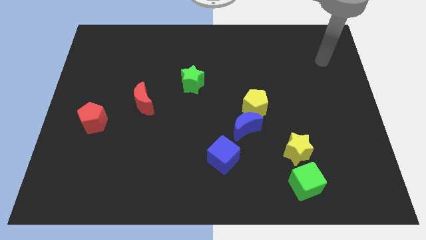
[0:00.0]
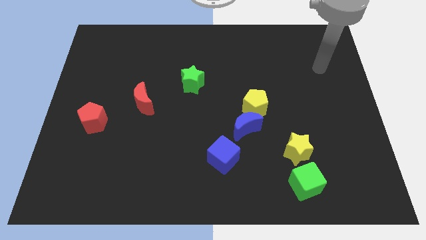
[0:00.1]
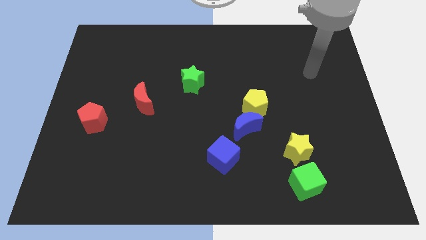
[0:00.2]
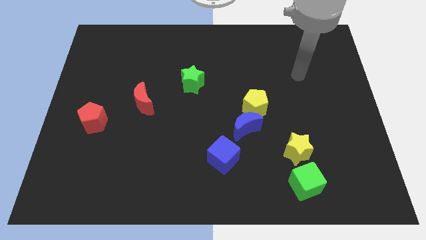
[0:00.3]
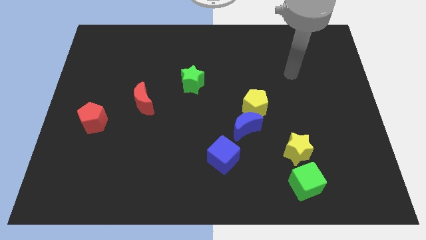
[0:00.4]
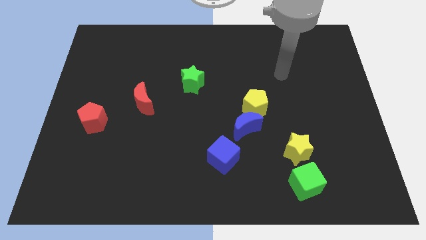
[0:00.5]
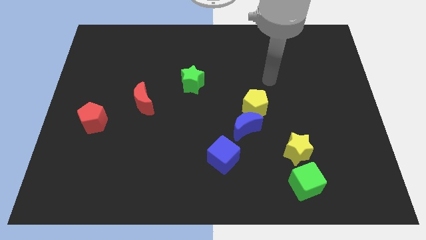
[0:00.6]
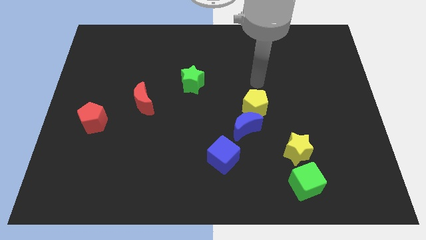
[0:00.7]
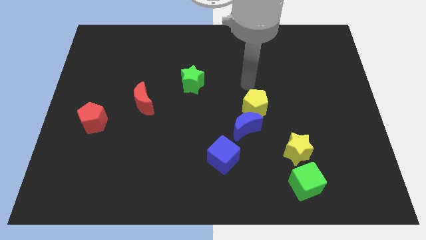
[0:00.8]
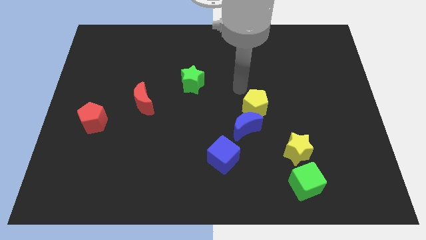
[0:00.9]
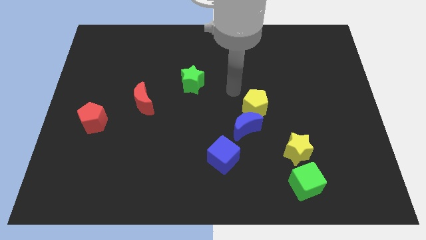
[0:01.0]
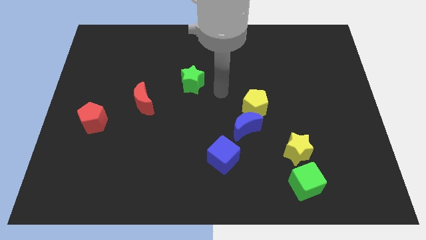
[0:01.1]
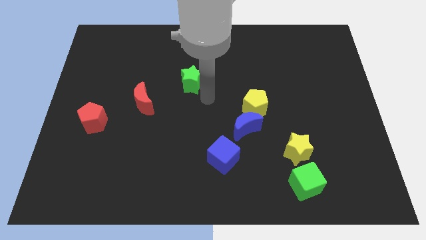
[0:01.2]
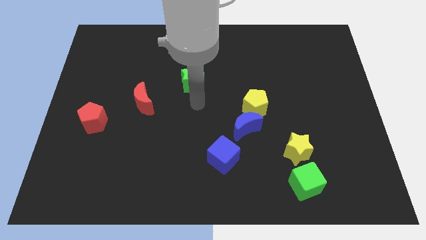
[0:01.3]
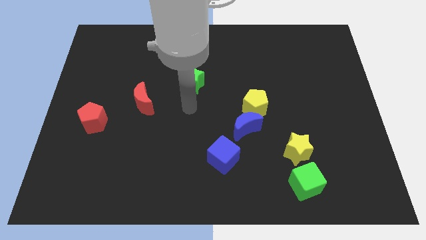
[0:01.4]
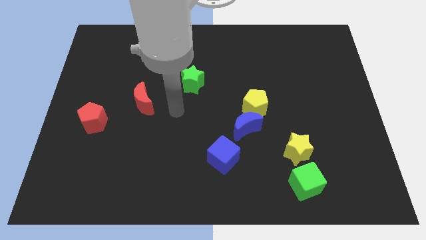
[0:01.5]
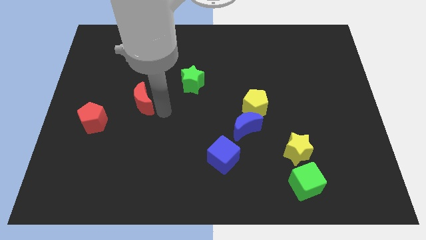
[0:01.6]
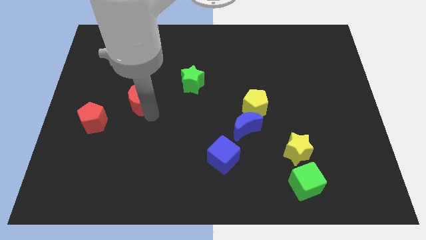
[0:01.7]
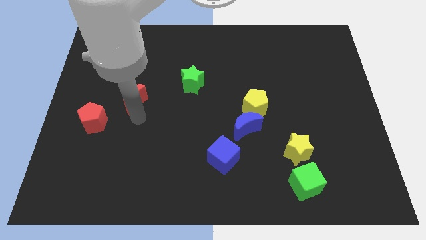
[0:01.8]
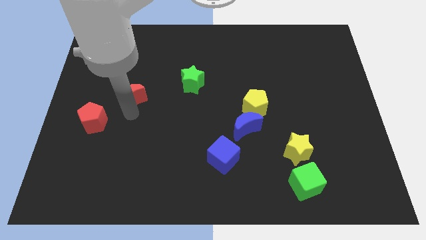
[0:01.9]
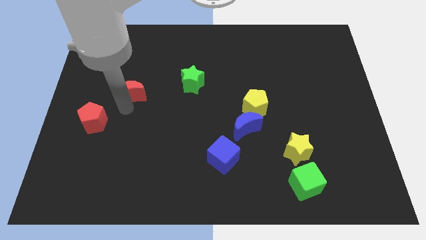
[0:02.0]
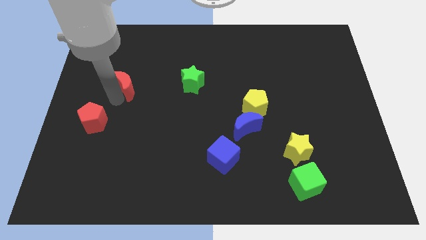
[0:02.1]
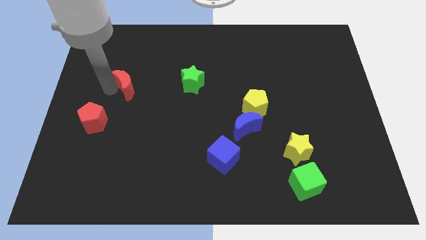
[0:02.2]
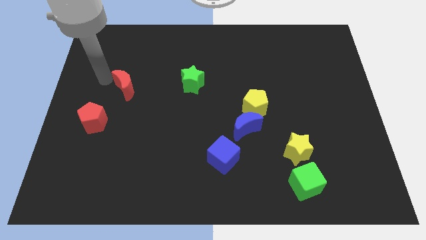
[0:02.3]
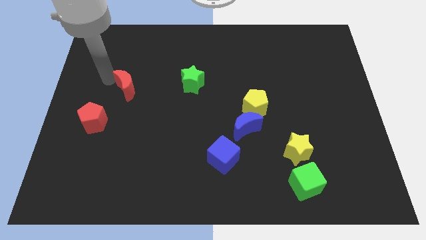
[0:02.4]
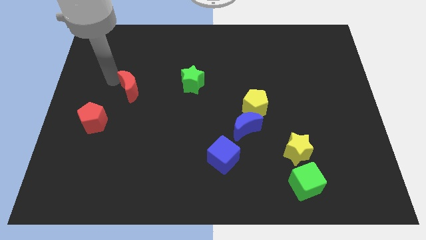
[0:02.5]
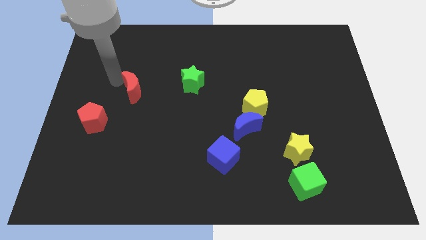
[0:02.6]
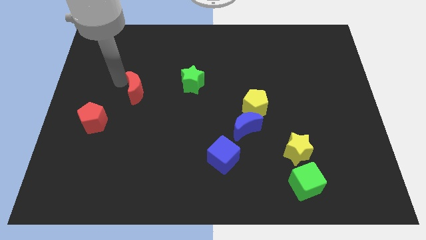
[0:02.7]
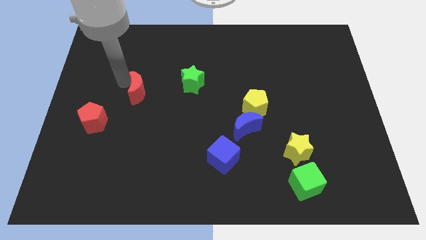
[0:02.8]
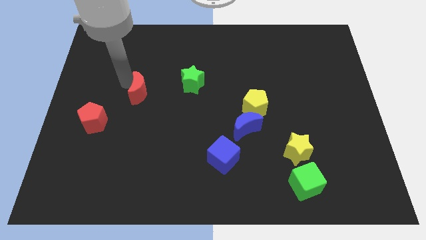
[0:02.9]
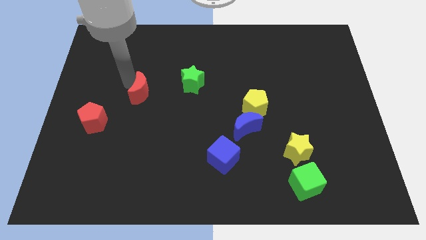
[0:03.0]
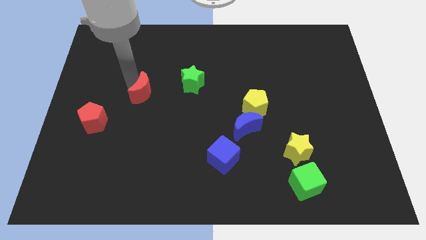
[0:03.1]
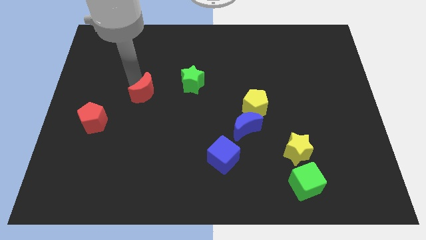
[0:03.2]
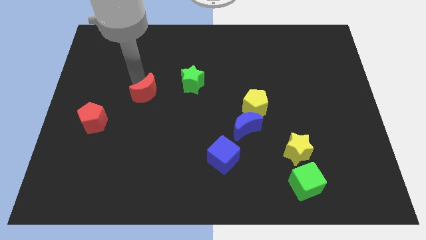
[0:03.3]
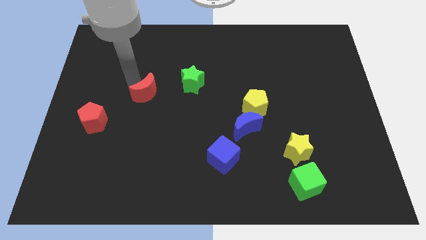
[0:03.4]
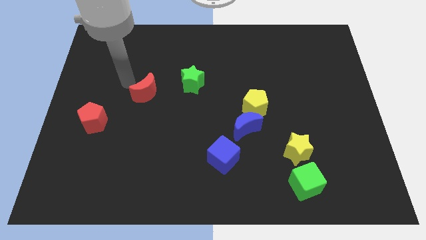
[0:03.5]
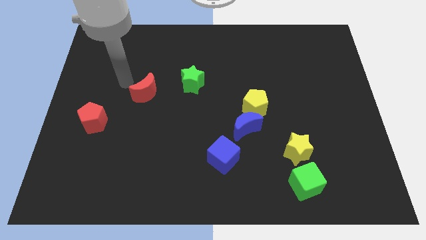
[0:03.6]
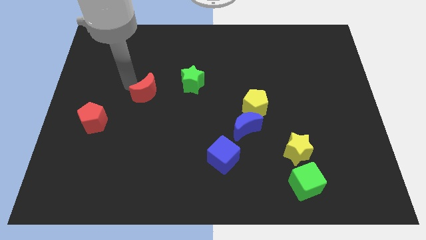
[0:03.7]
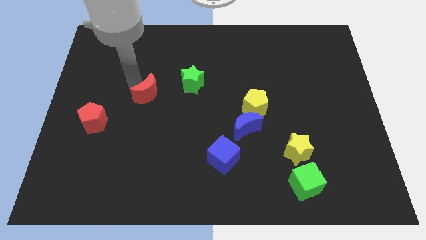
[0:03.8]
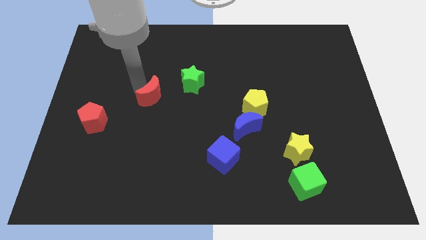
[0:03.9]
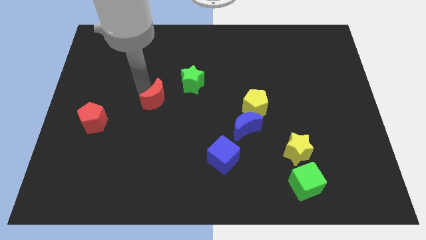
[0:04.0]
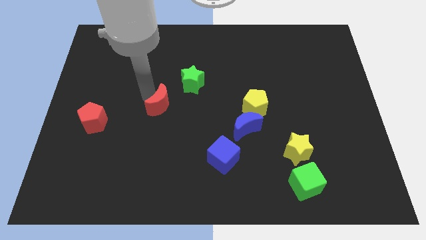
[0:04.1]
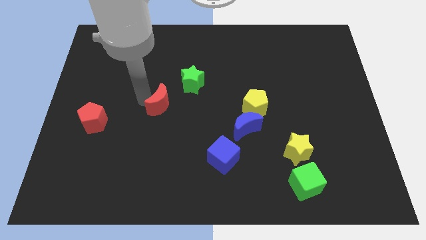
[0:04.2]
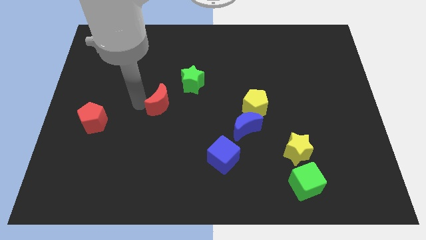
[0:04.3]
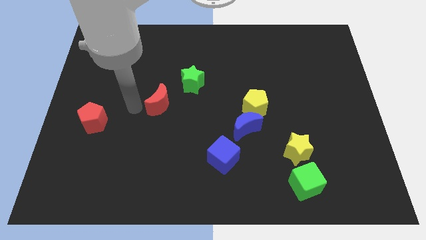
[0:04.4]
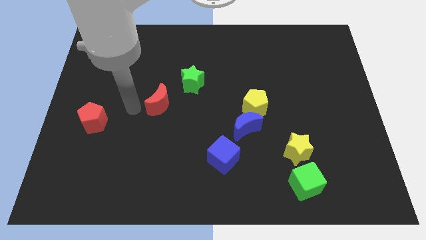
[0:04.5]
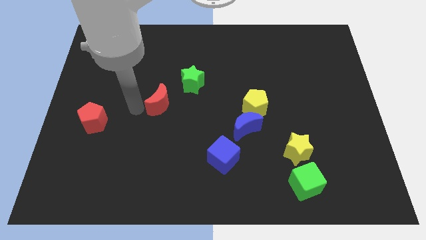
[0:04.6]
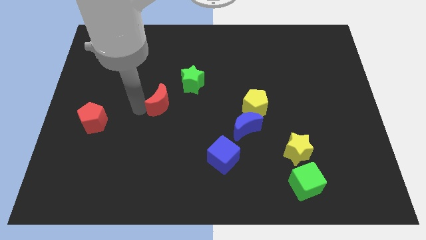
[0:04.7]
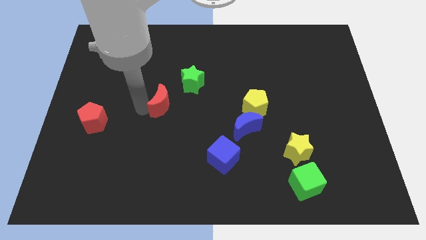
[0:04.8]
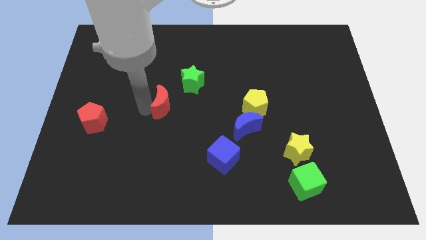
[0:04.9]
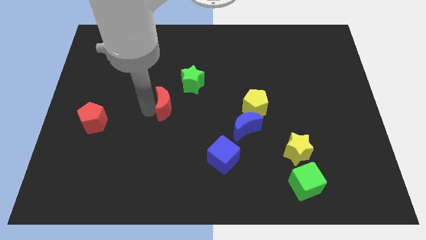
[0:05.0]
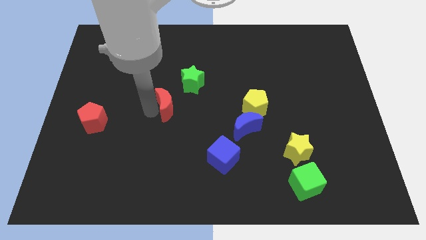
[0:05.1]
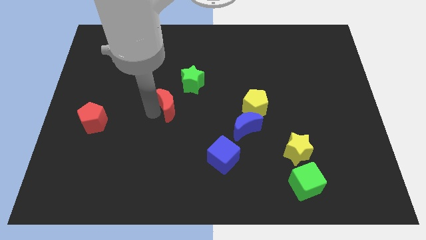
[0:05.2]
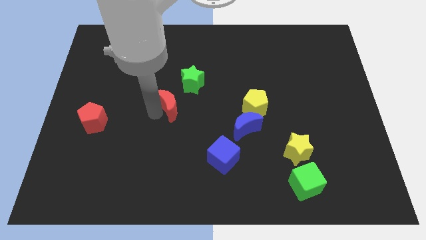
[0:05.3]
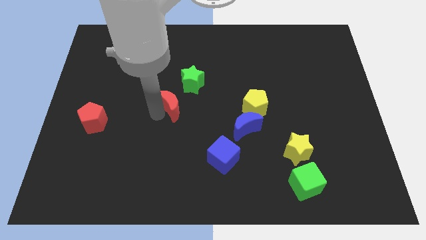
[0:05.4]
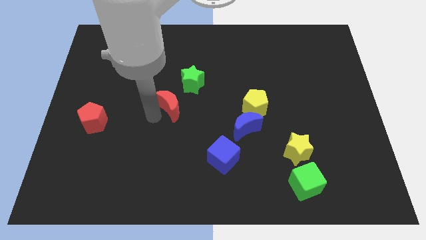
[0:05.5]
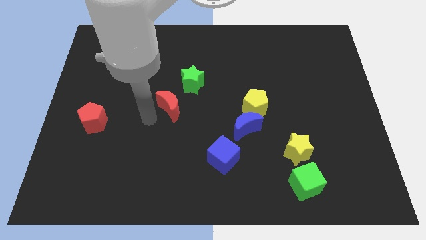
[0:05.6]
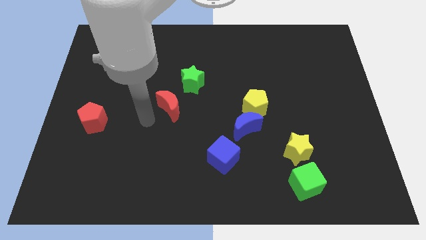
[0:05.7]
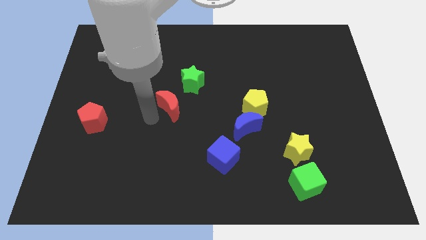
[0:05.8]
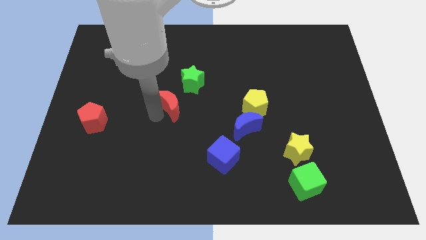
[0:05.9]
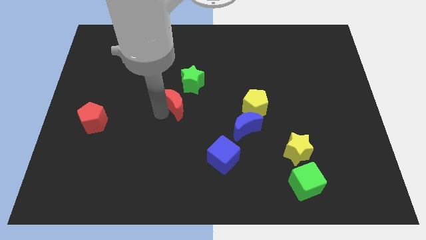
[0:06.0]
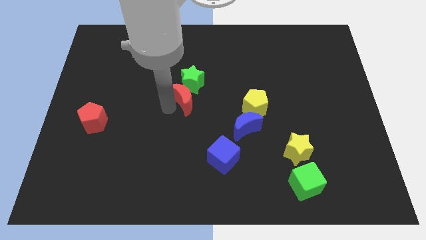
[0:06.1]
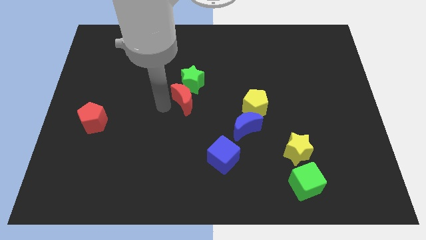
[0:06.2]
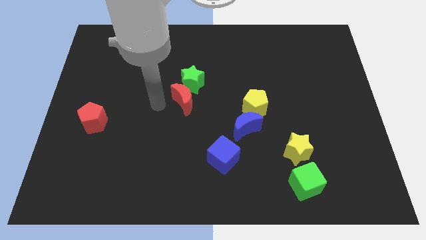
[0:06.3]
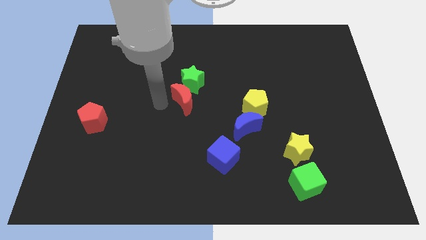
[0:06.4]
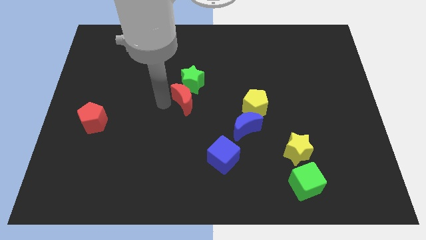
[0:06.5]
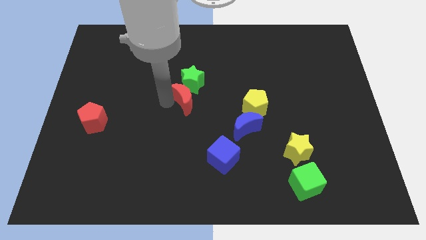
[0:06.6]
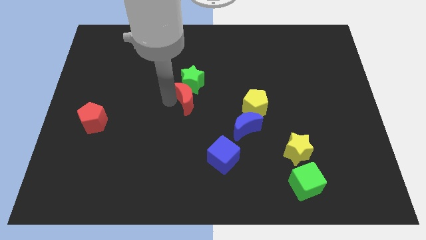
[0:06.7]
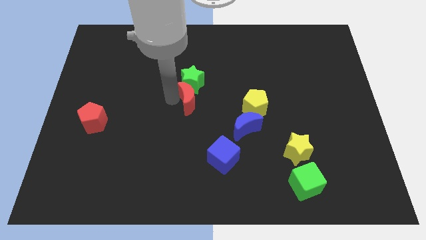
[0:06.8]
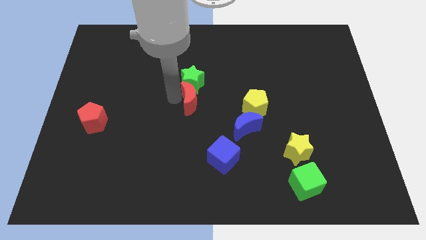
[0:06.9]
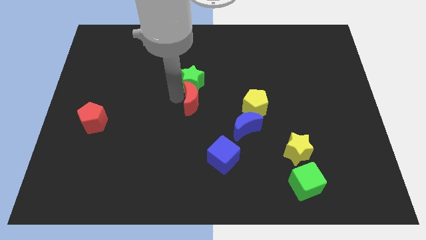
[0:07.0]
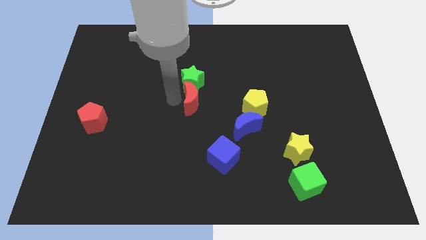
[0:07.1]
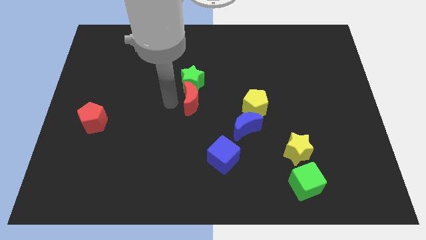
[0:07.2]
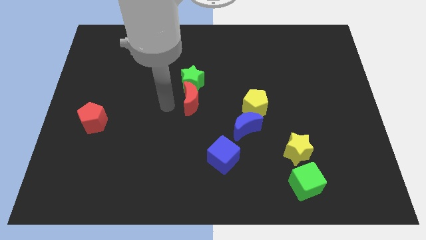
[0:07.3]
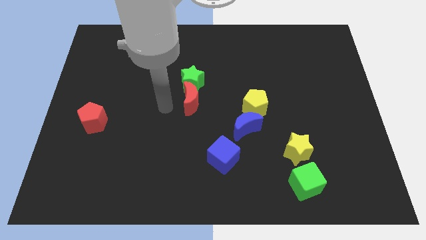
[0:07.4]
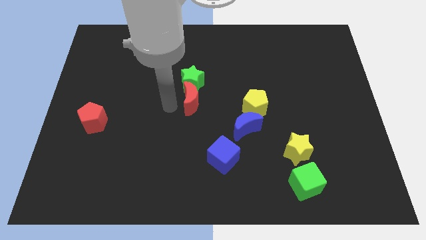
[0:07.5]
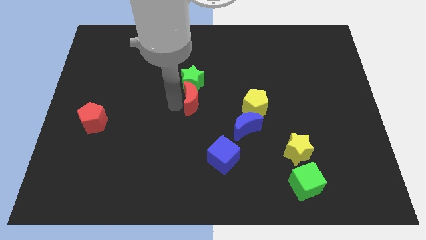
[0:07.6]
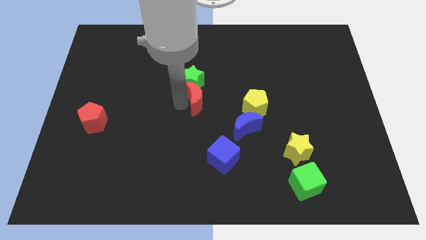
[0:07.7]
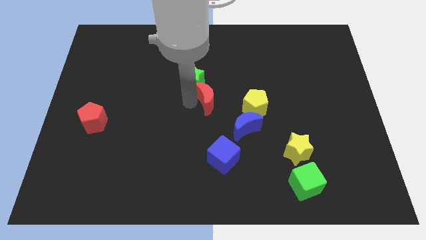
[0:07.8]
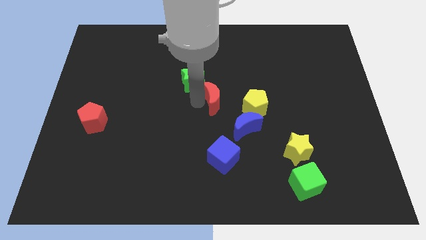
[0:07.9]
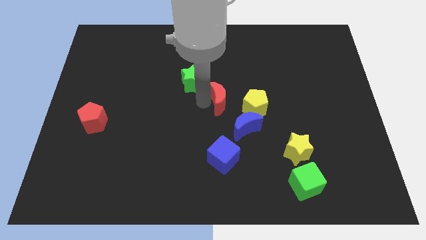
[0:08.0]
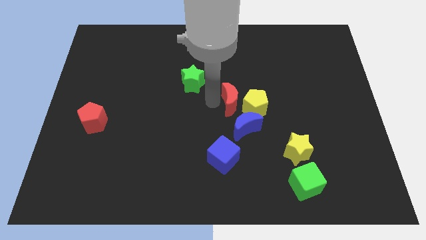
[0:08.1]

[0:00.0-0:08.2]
push the red moon to the right
